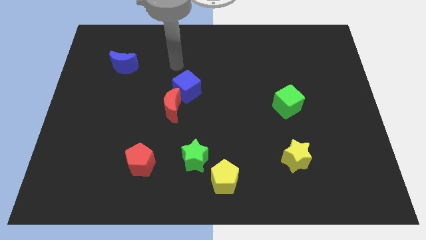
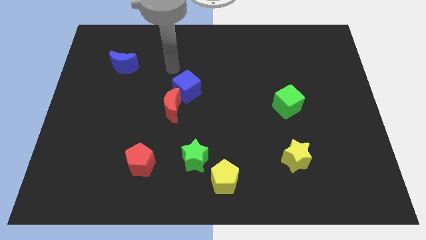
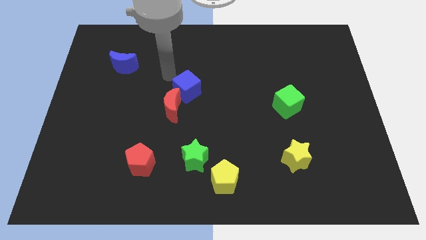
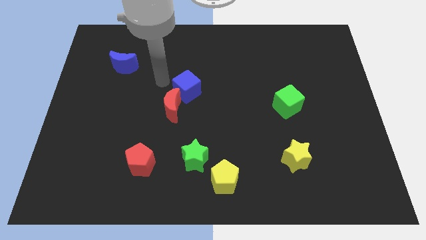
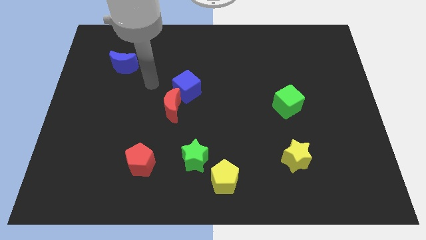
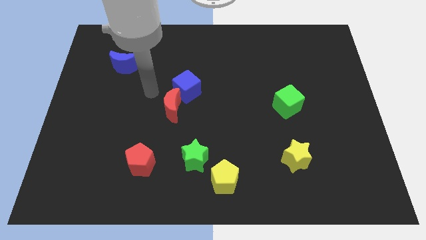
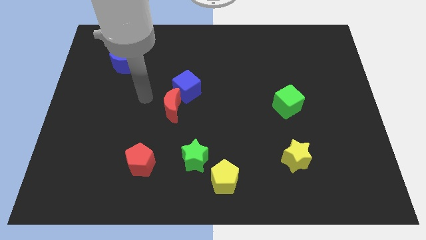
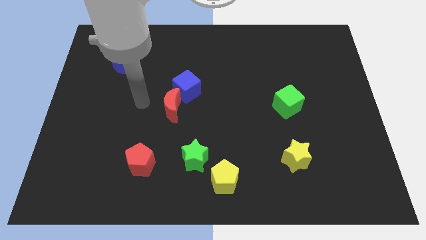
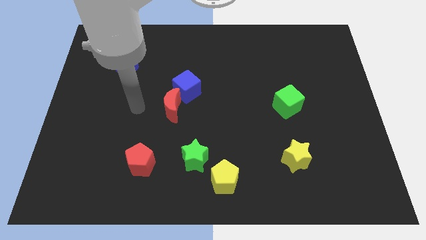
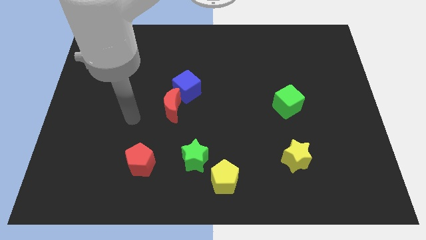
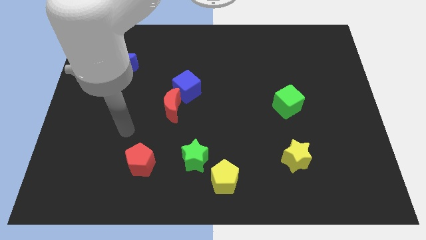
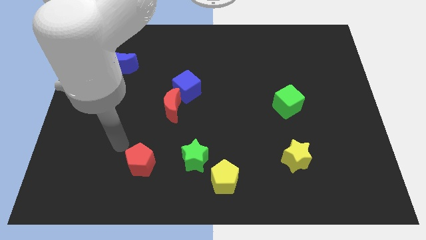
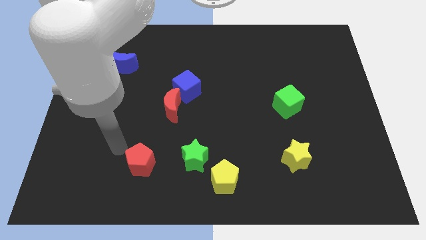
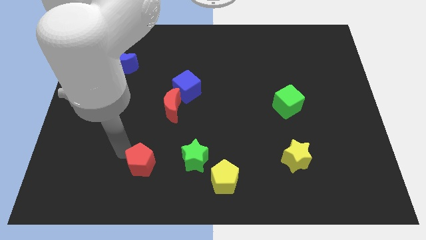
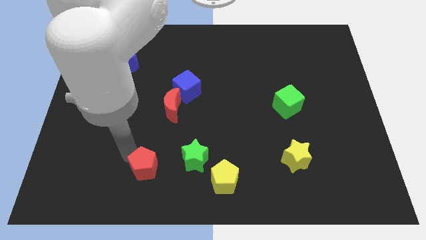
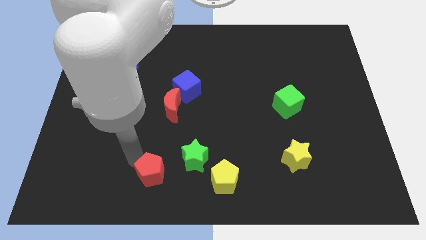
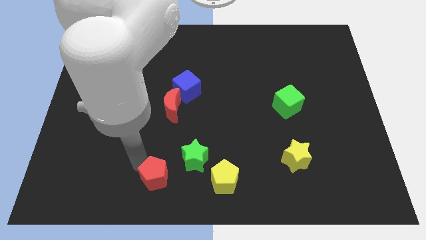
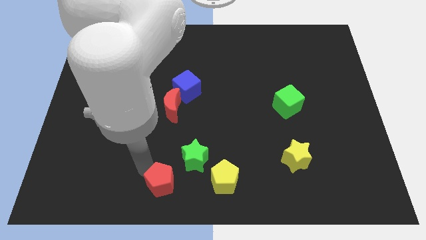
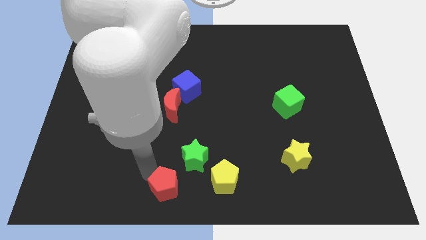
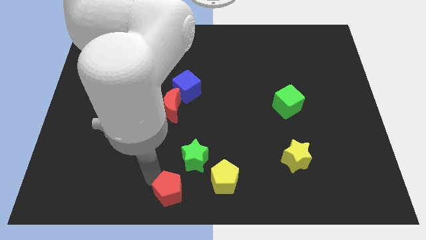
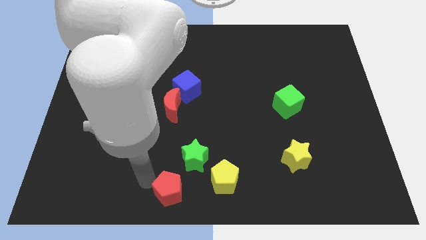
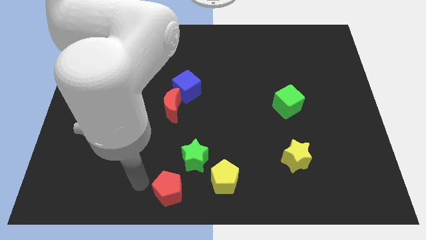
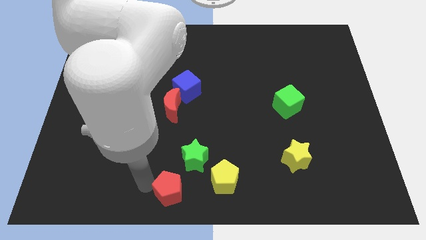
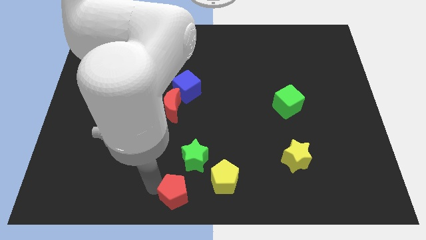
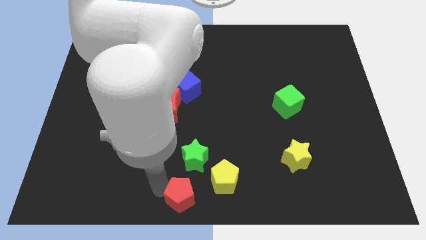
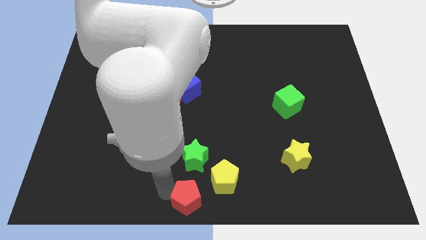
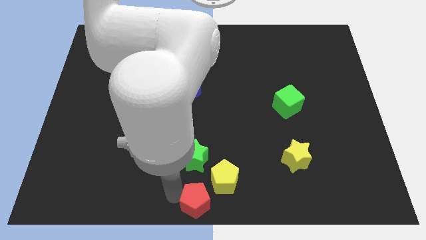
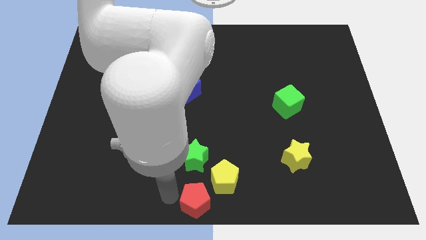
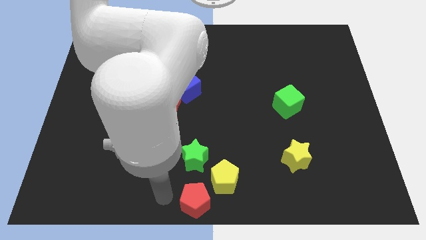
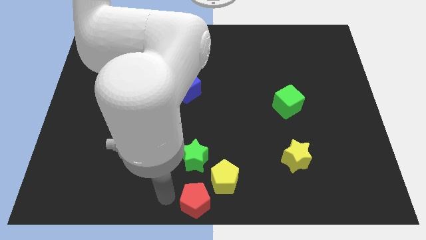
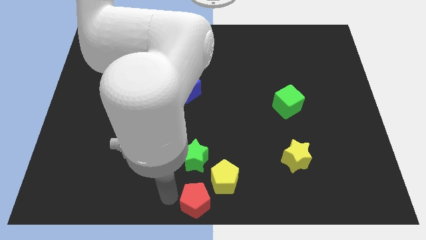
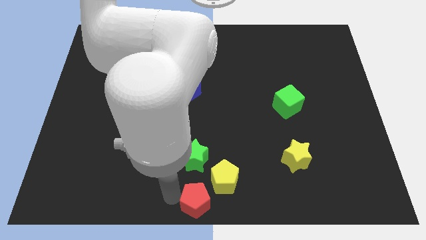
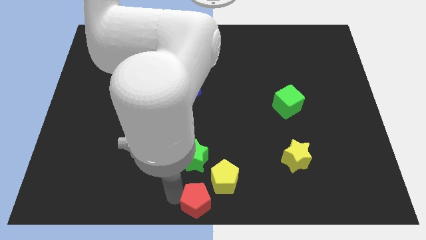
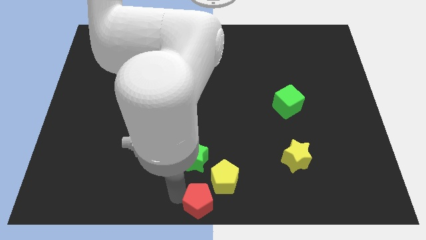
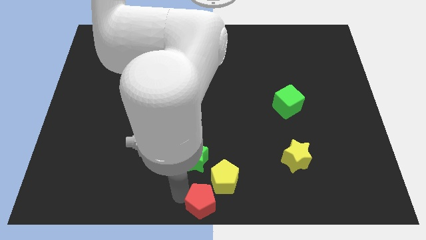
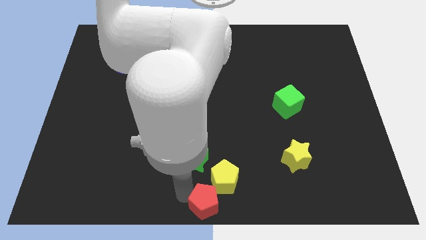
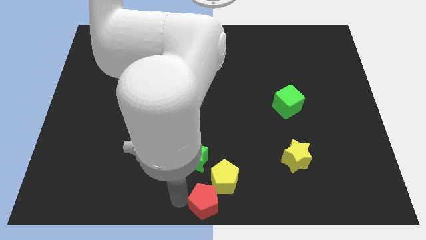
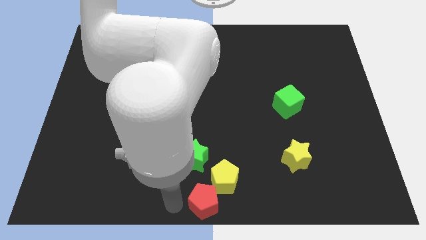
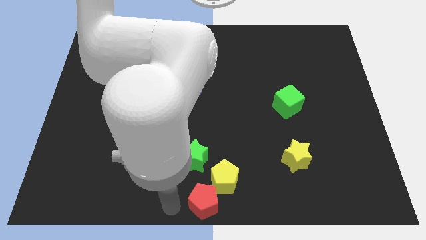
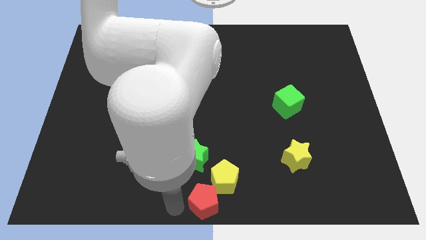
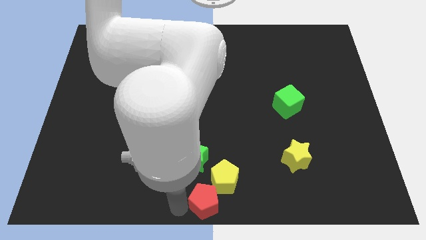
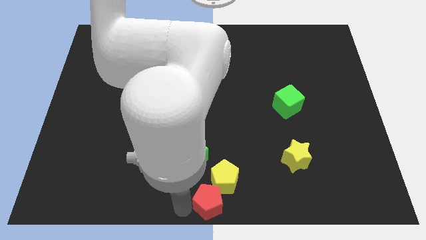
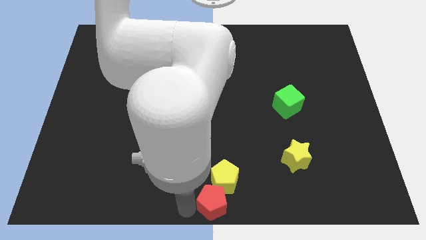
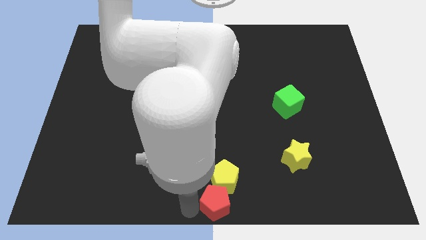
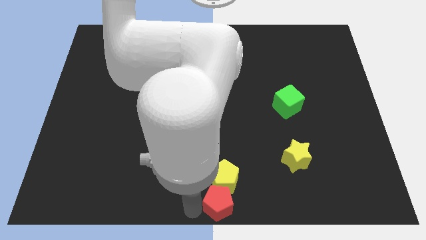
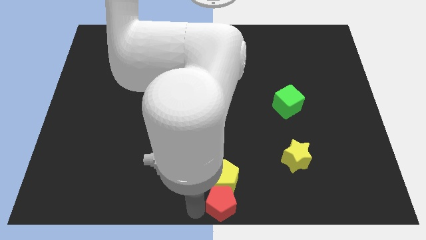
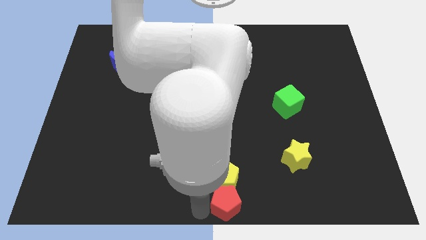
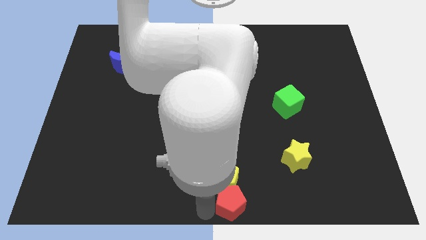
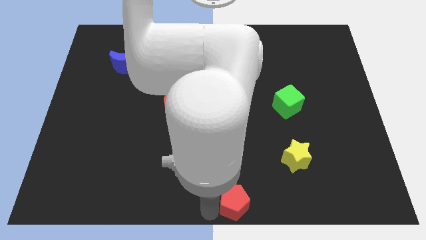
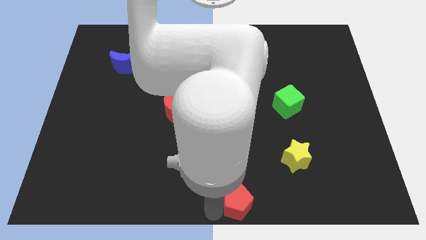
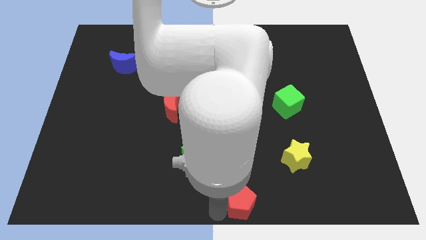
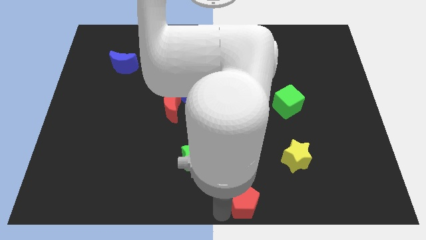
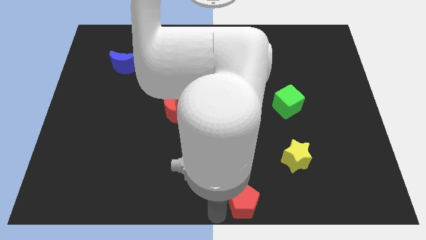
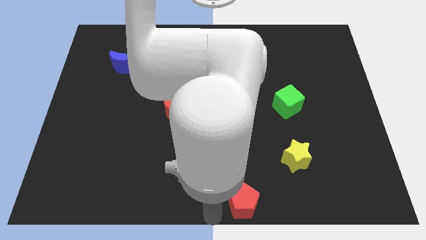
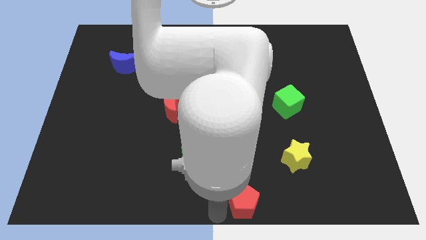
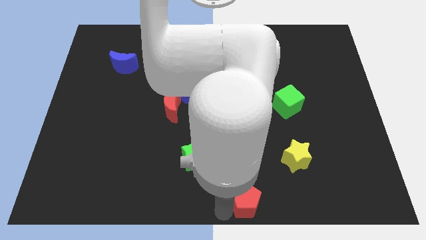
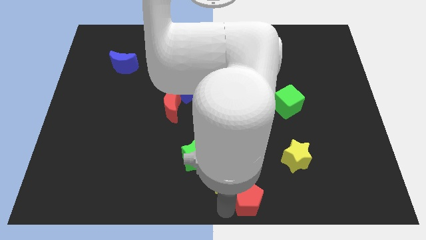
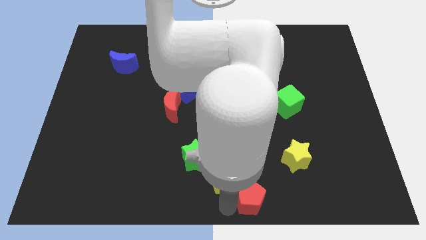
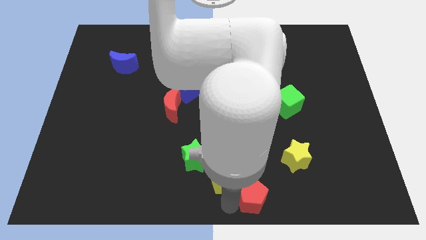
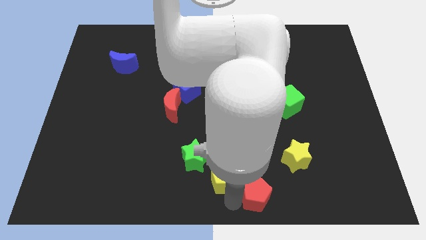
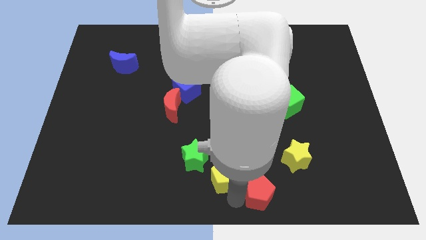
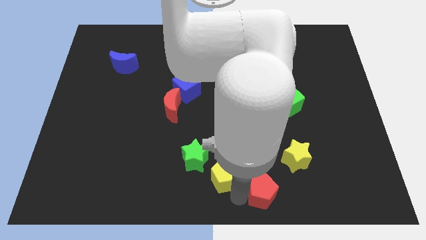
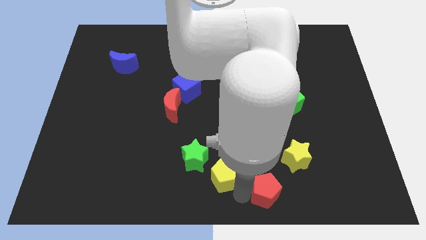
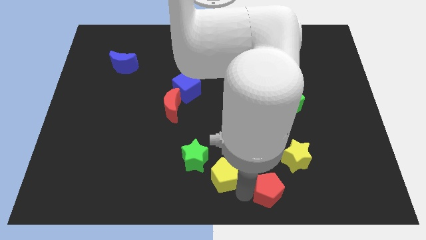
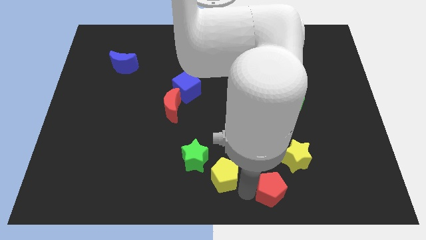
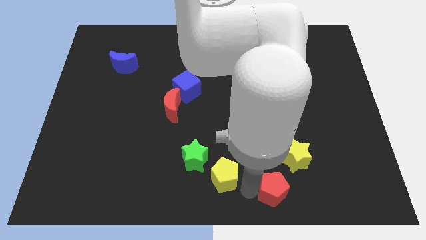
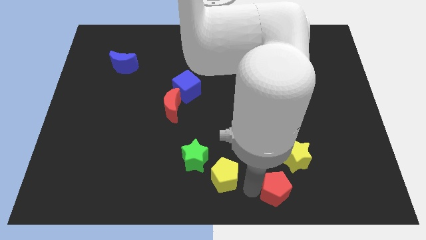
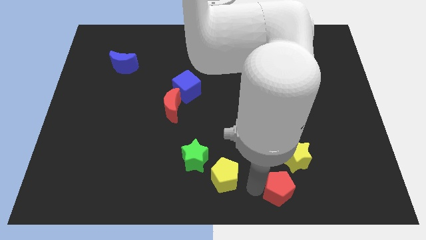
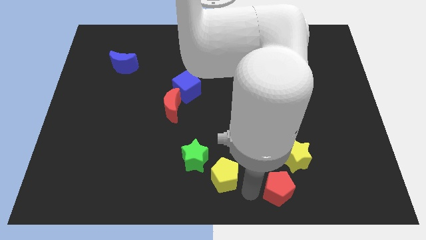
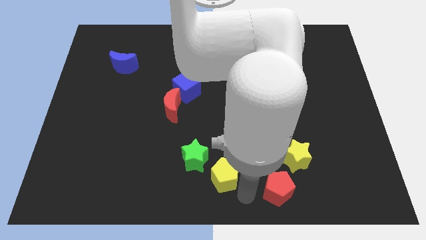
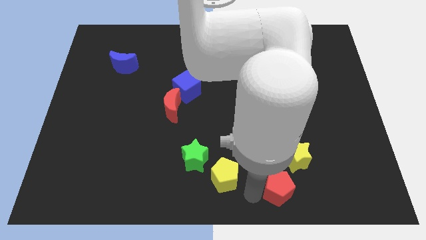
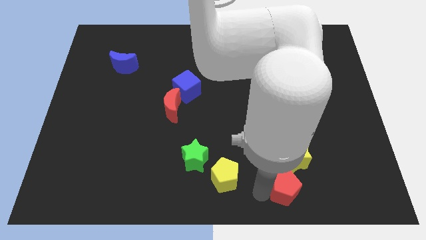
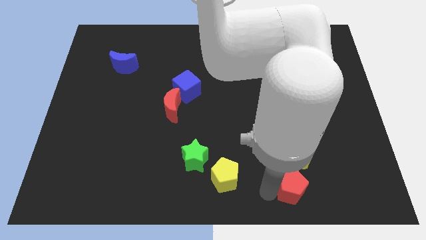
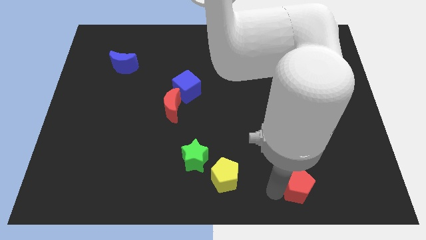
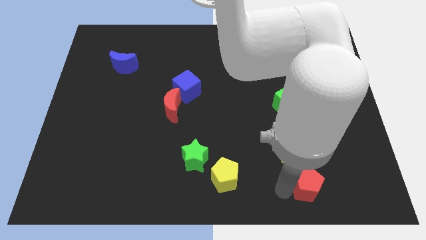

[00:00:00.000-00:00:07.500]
put the red pentagon to the bottom right side of the yellow star
